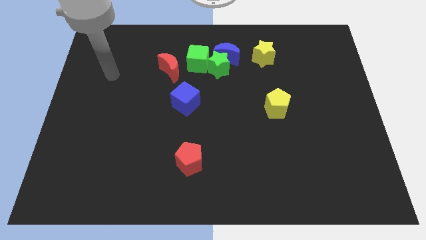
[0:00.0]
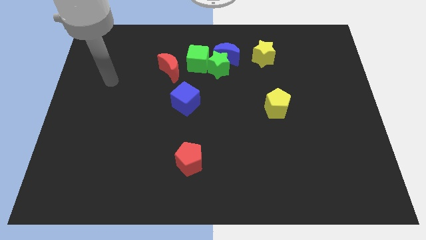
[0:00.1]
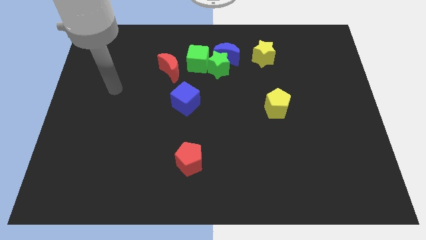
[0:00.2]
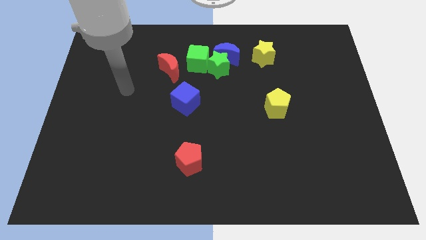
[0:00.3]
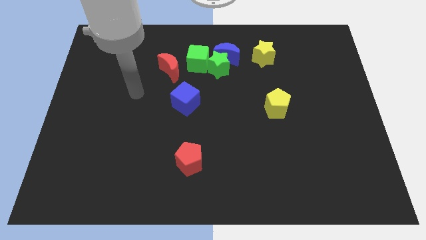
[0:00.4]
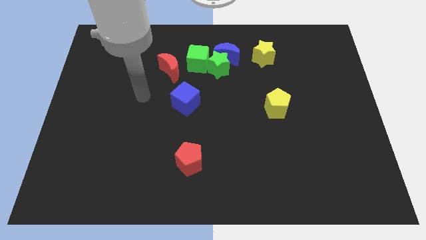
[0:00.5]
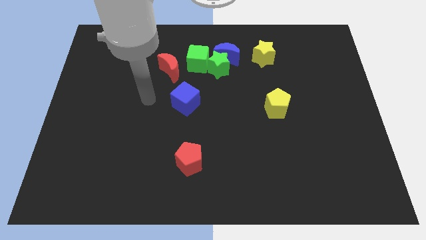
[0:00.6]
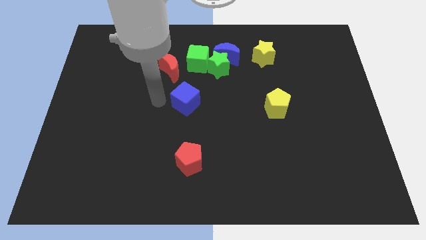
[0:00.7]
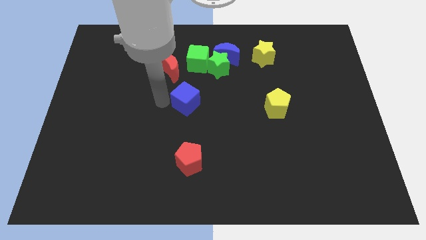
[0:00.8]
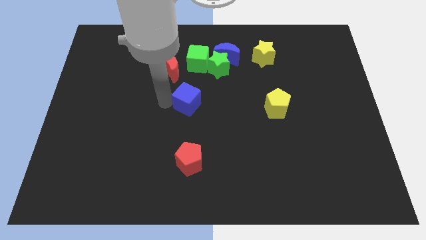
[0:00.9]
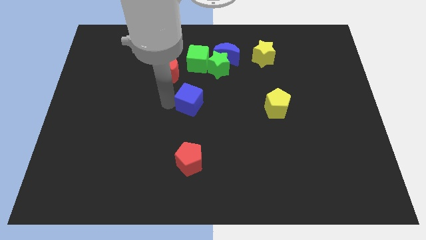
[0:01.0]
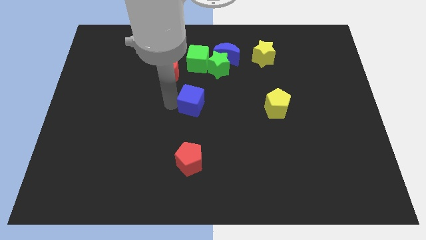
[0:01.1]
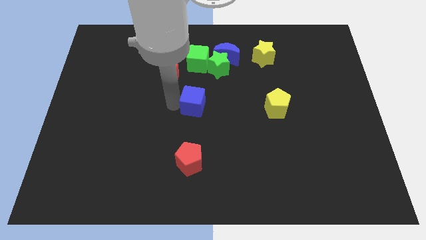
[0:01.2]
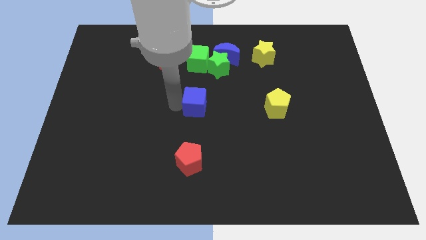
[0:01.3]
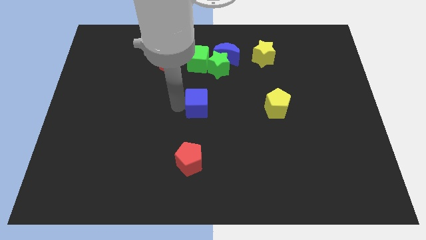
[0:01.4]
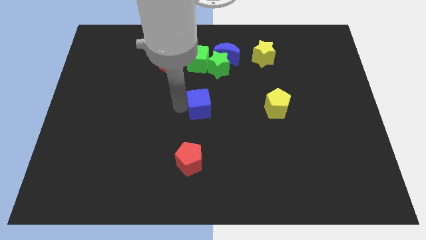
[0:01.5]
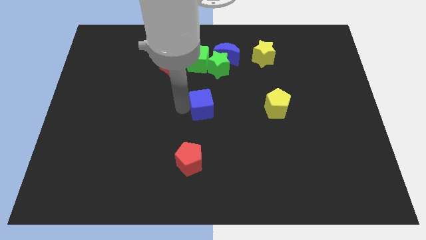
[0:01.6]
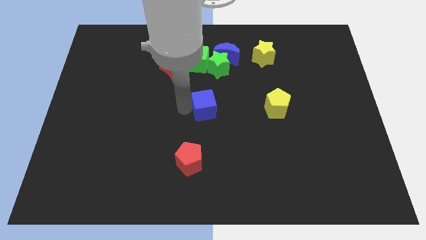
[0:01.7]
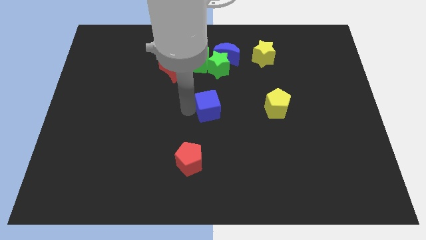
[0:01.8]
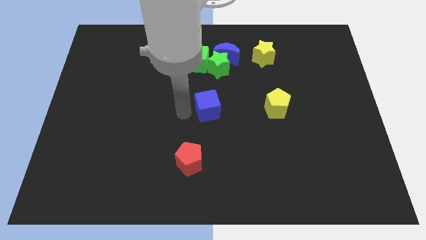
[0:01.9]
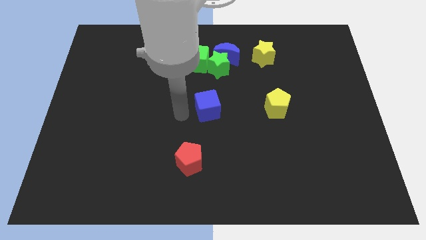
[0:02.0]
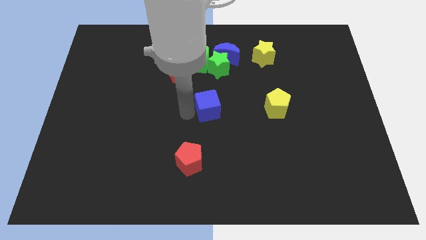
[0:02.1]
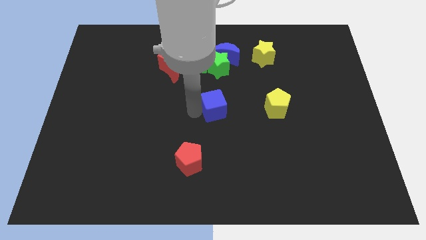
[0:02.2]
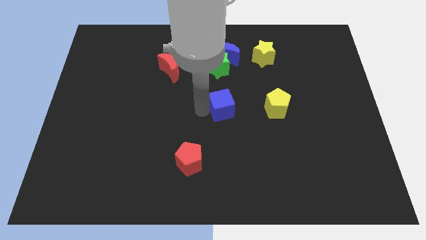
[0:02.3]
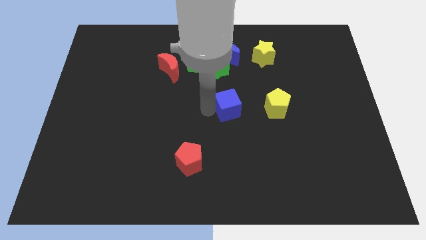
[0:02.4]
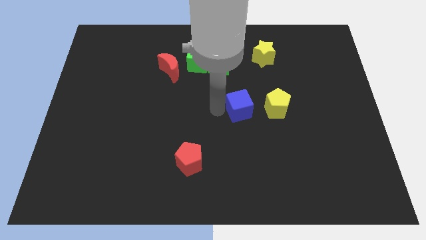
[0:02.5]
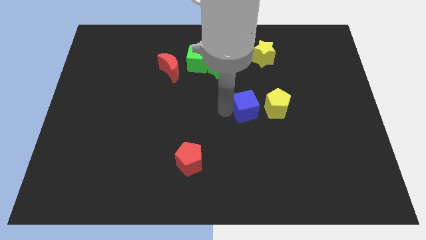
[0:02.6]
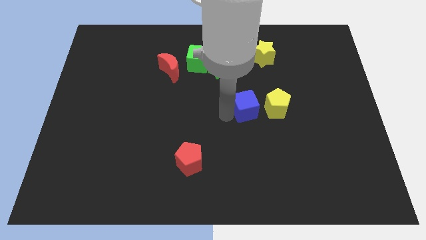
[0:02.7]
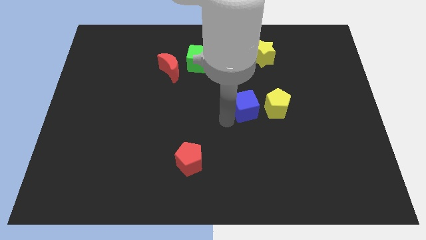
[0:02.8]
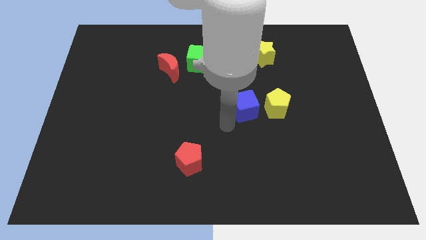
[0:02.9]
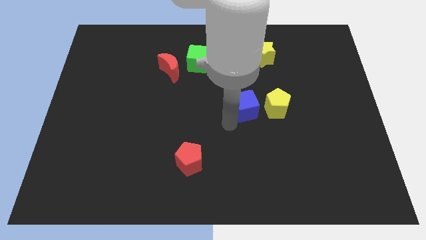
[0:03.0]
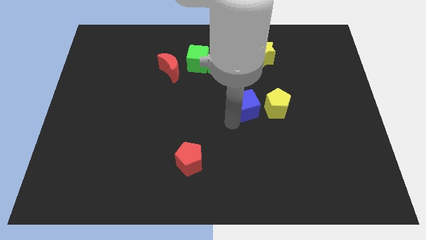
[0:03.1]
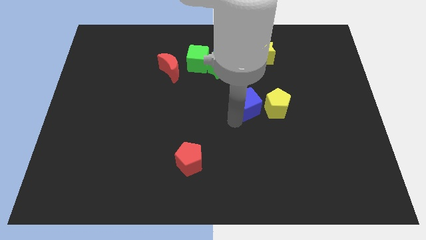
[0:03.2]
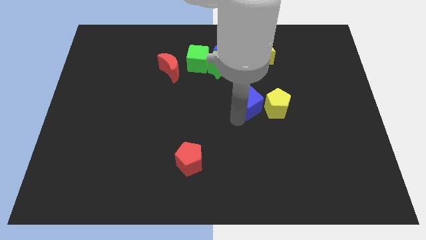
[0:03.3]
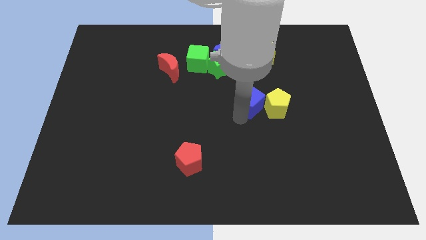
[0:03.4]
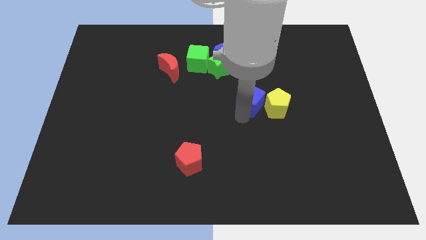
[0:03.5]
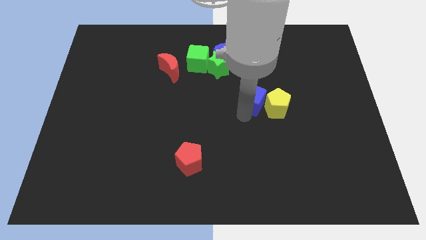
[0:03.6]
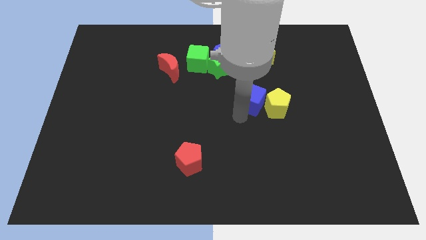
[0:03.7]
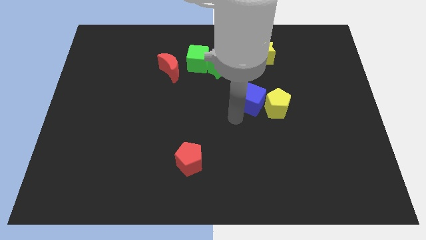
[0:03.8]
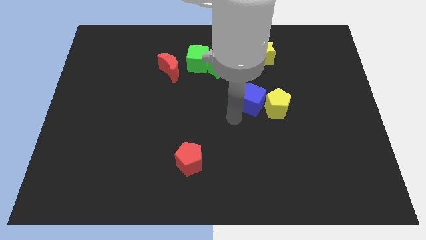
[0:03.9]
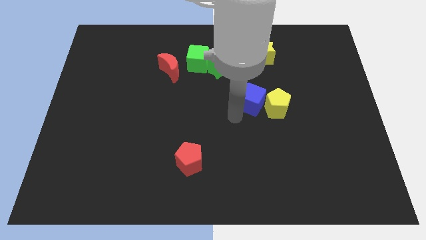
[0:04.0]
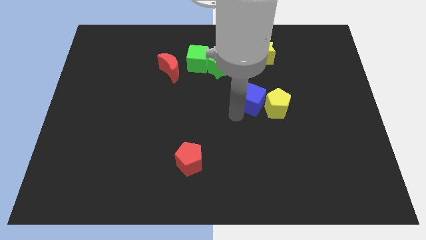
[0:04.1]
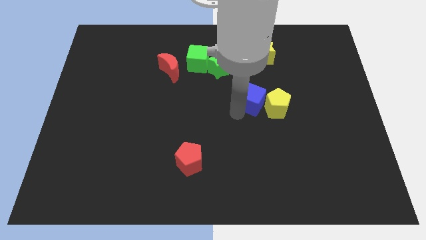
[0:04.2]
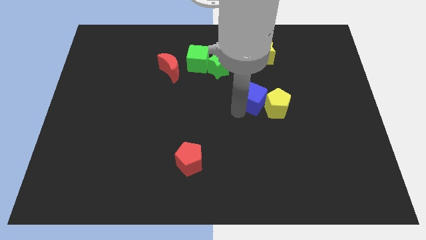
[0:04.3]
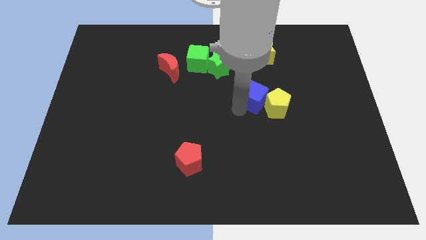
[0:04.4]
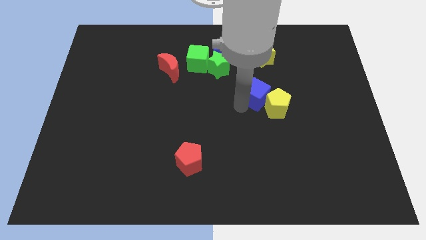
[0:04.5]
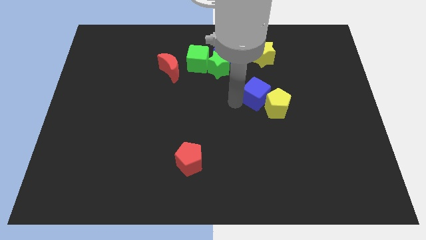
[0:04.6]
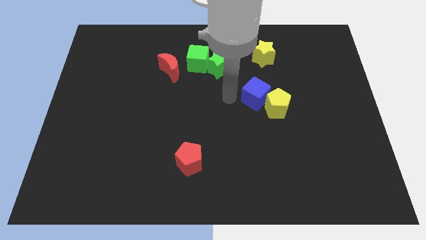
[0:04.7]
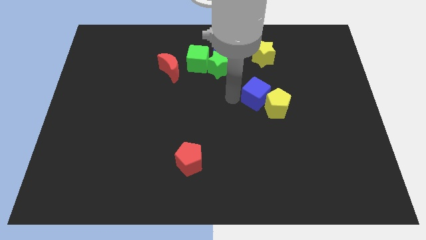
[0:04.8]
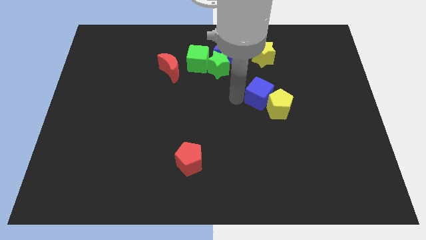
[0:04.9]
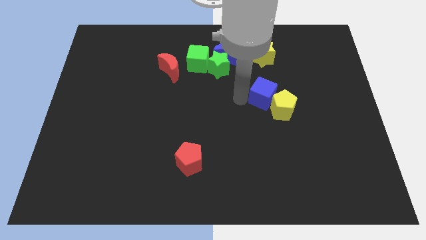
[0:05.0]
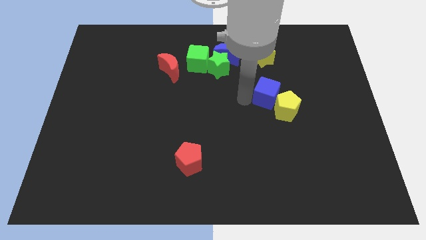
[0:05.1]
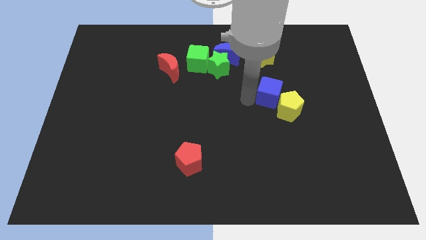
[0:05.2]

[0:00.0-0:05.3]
push the blue cube to the right

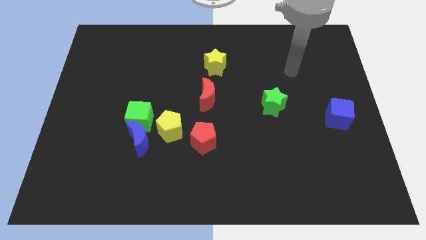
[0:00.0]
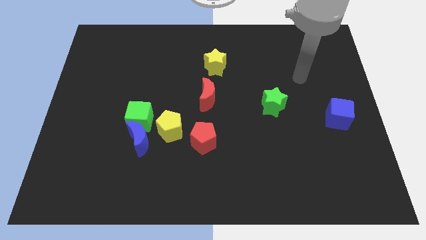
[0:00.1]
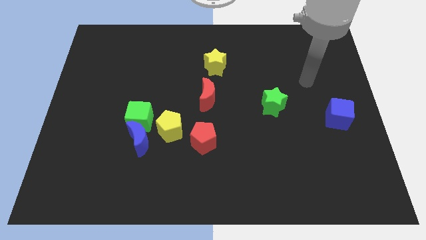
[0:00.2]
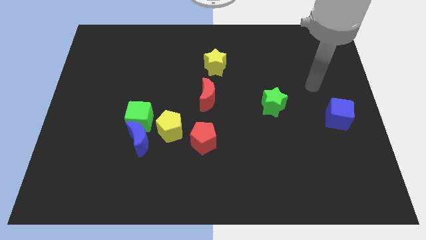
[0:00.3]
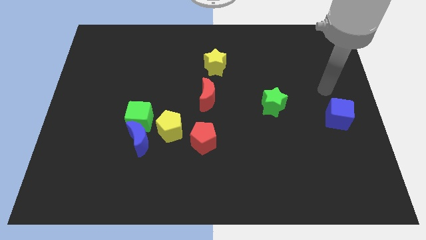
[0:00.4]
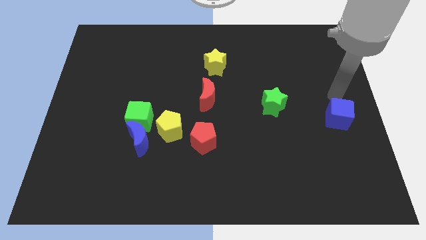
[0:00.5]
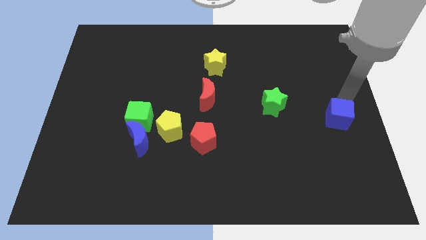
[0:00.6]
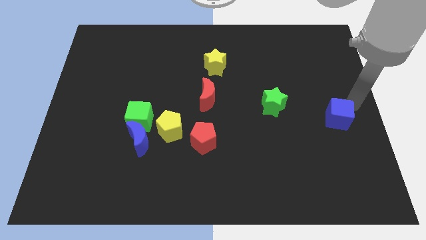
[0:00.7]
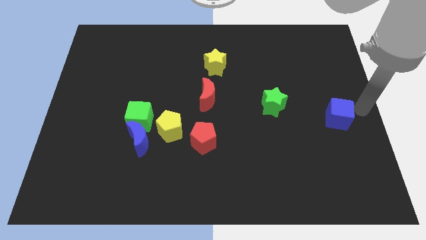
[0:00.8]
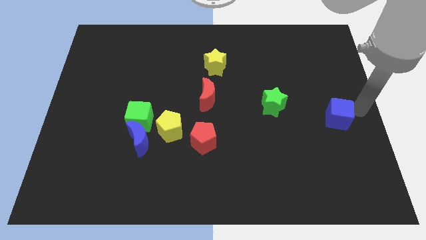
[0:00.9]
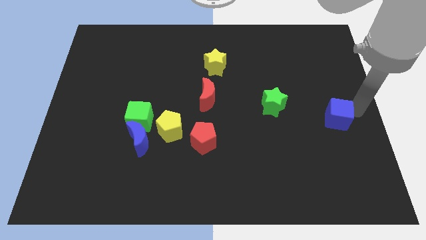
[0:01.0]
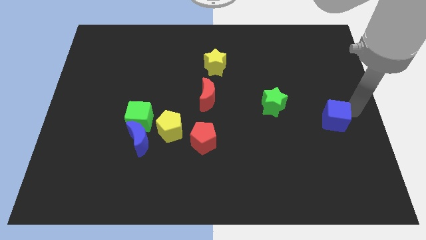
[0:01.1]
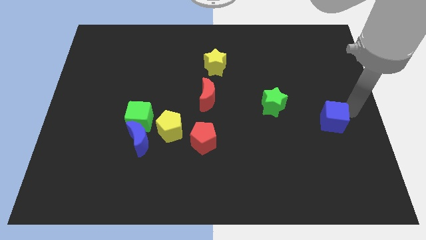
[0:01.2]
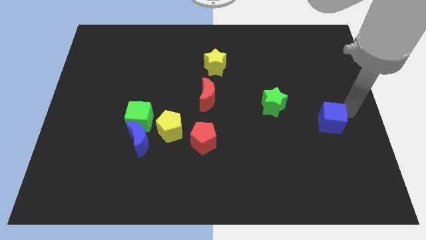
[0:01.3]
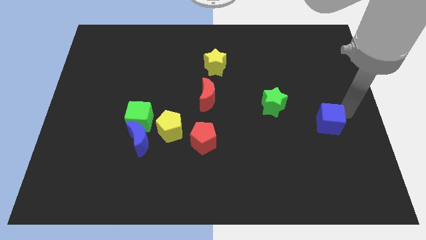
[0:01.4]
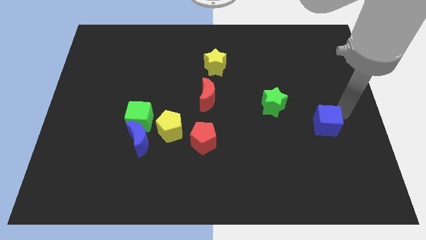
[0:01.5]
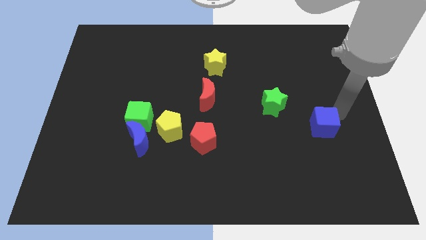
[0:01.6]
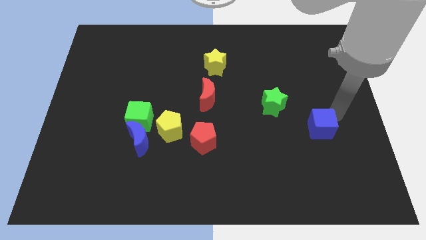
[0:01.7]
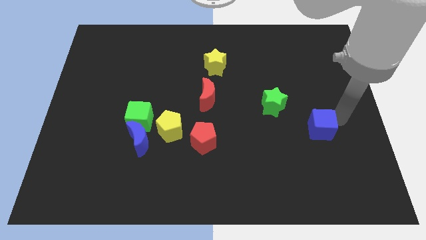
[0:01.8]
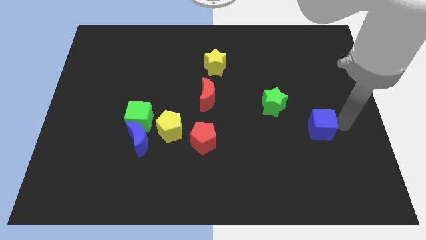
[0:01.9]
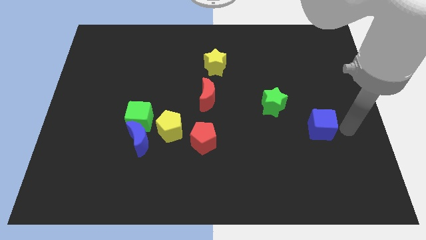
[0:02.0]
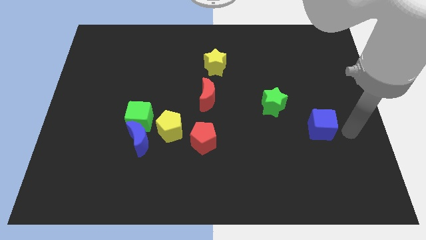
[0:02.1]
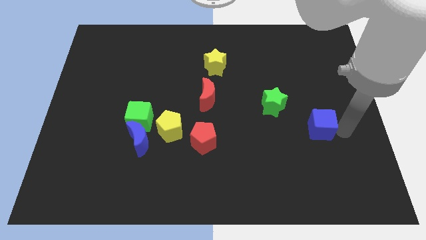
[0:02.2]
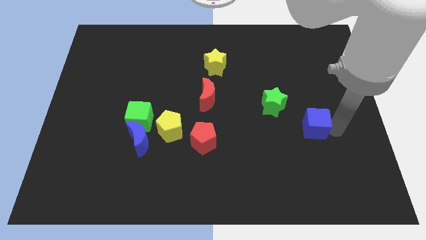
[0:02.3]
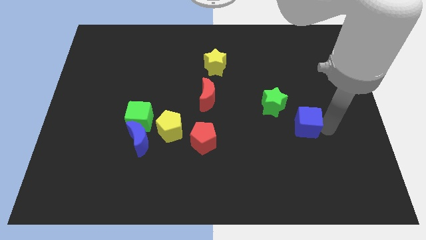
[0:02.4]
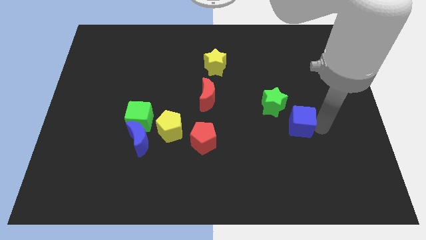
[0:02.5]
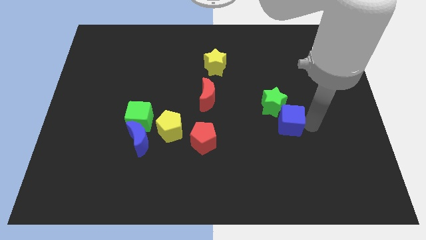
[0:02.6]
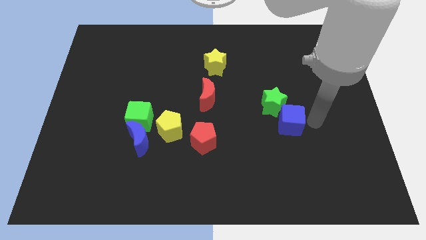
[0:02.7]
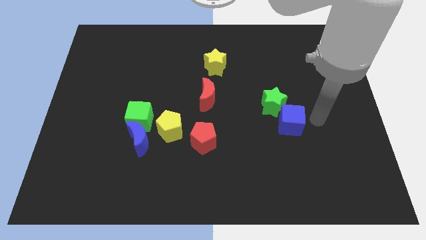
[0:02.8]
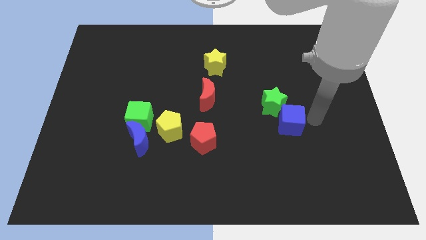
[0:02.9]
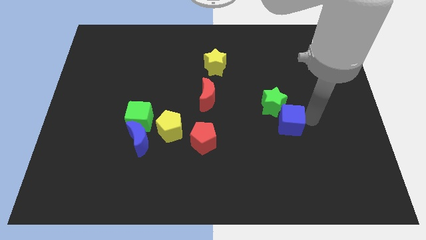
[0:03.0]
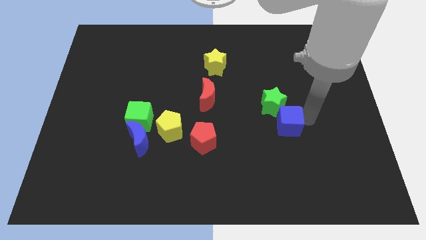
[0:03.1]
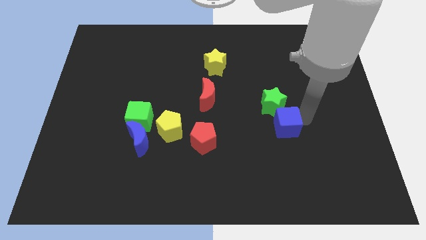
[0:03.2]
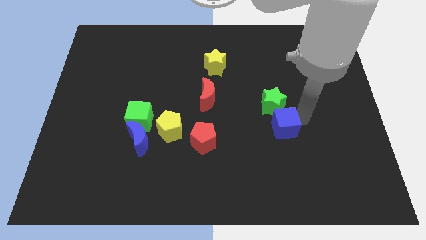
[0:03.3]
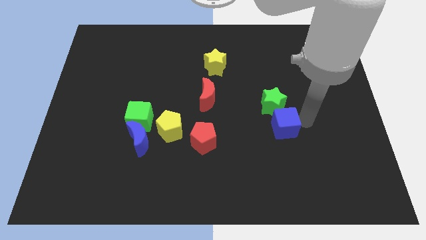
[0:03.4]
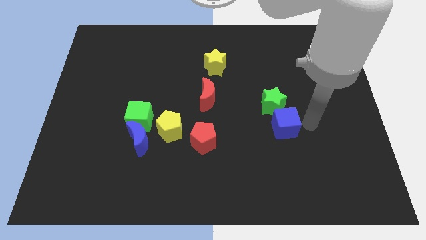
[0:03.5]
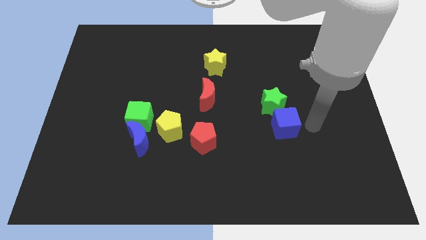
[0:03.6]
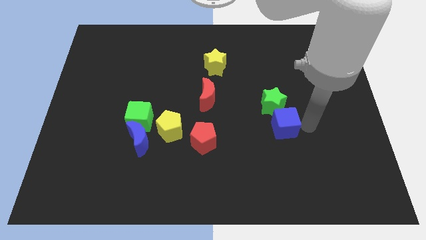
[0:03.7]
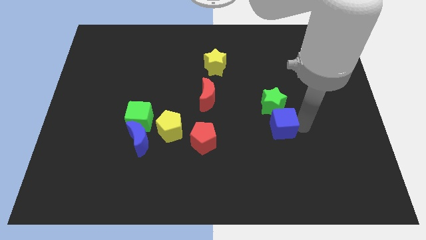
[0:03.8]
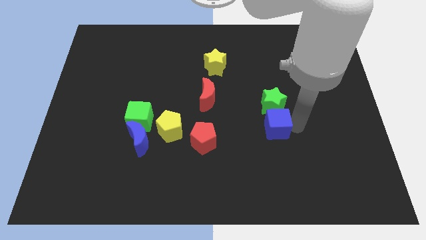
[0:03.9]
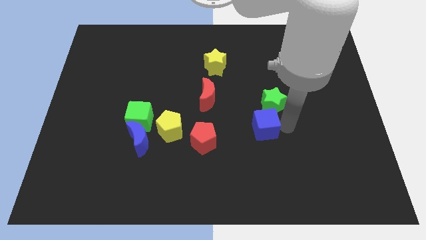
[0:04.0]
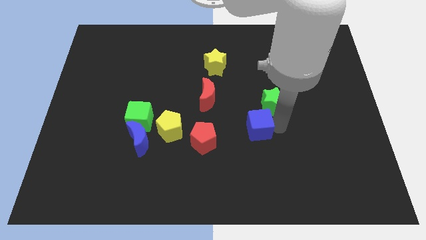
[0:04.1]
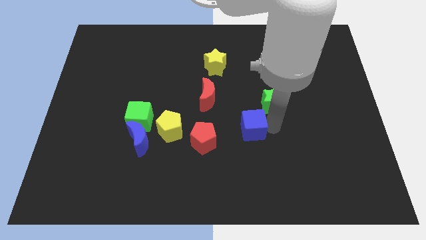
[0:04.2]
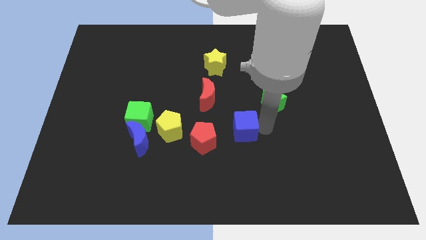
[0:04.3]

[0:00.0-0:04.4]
slide the blue cube left
